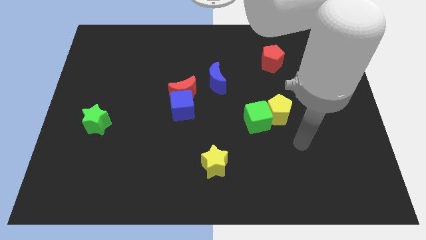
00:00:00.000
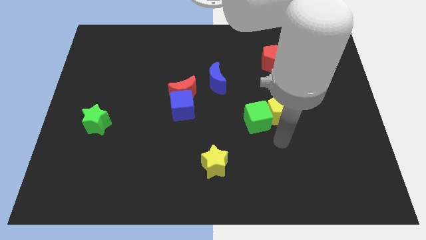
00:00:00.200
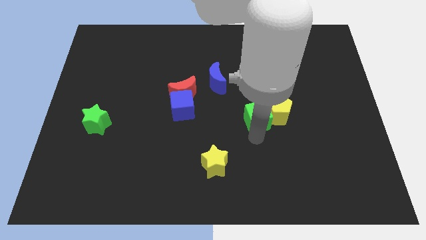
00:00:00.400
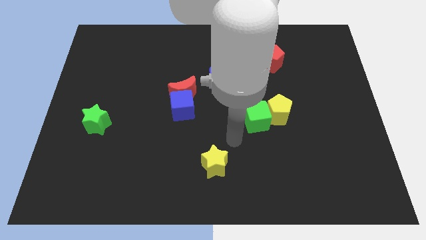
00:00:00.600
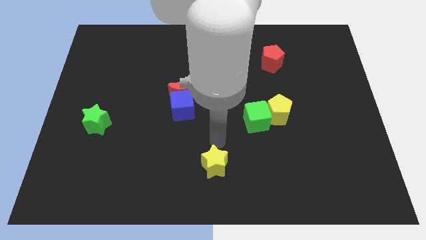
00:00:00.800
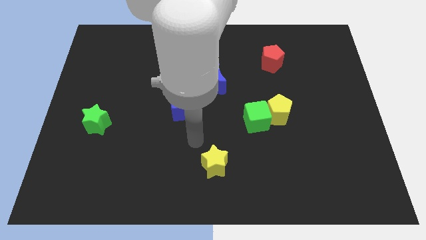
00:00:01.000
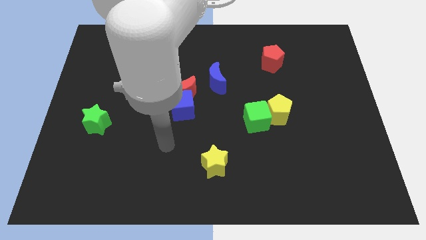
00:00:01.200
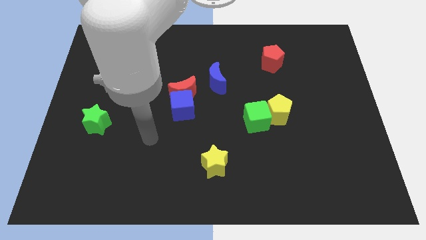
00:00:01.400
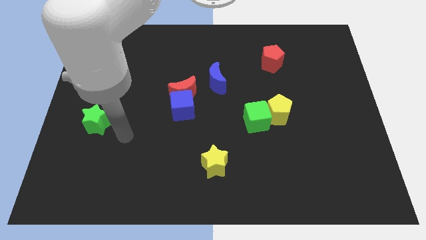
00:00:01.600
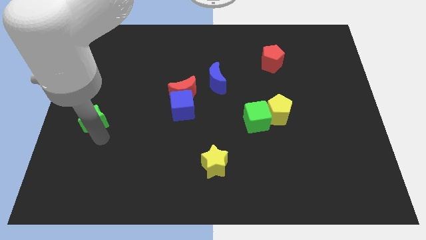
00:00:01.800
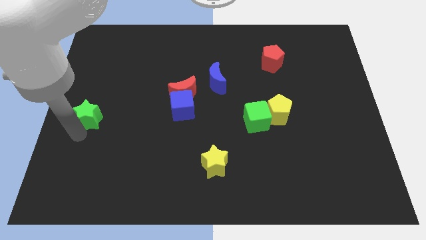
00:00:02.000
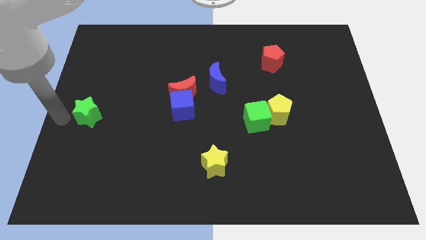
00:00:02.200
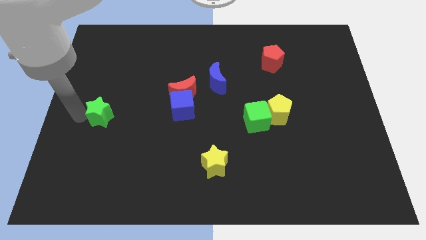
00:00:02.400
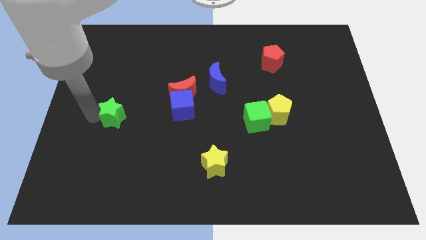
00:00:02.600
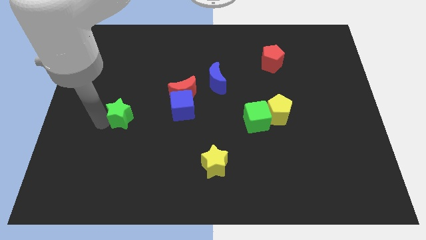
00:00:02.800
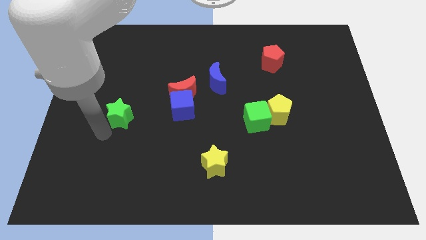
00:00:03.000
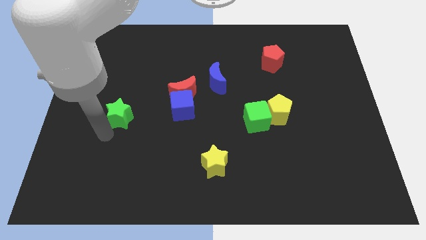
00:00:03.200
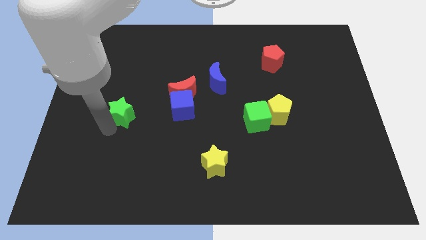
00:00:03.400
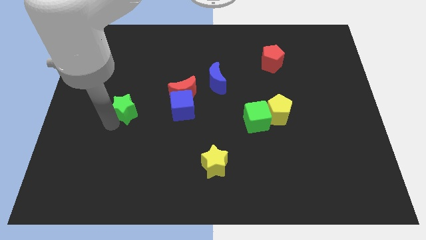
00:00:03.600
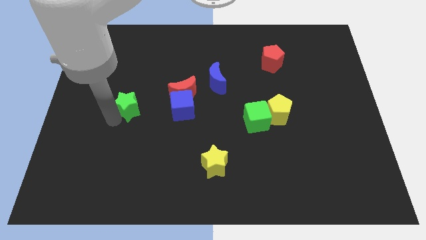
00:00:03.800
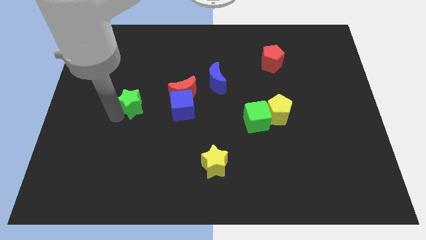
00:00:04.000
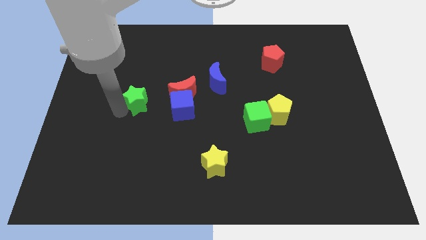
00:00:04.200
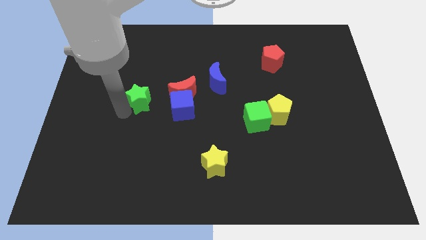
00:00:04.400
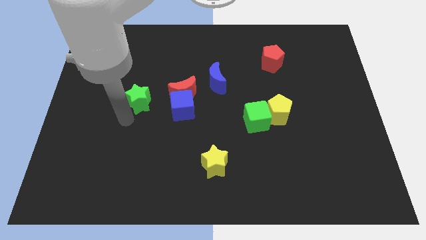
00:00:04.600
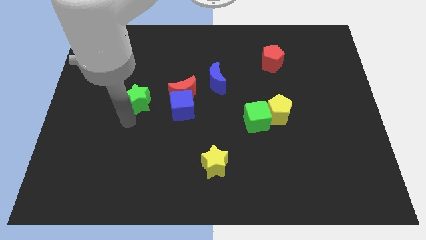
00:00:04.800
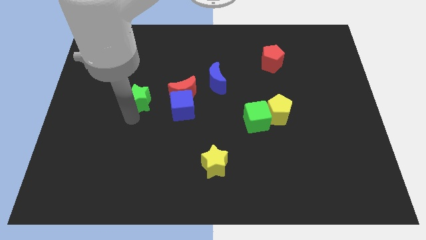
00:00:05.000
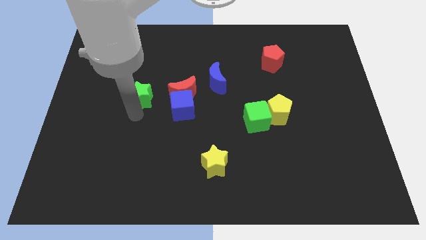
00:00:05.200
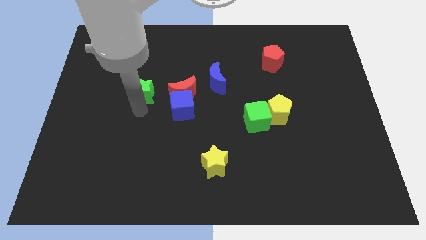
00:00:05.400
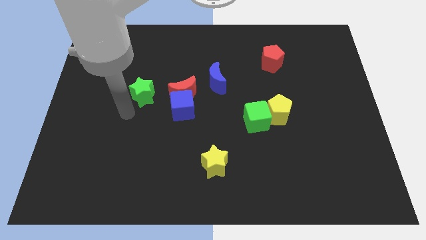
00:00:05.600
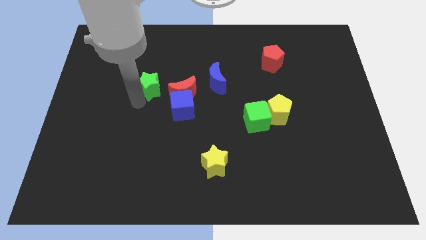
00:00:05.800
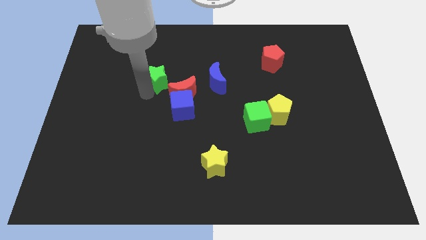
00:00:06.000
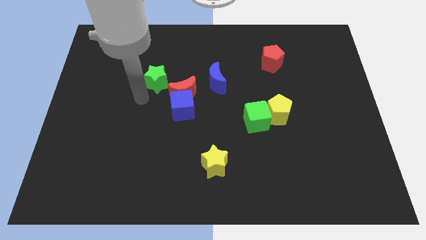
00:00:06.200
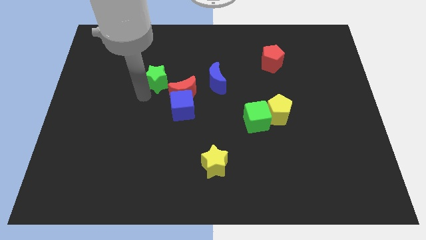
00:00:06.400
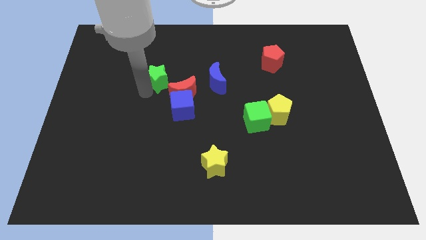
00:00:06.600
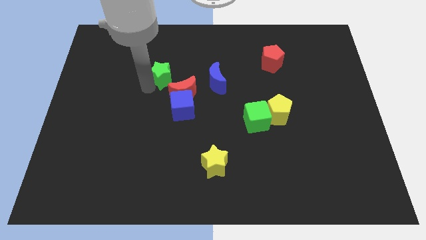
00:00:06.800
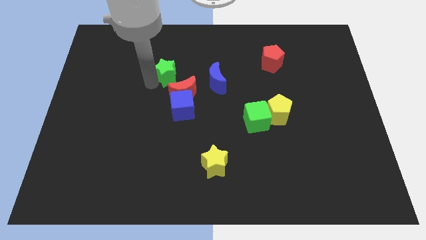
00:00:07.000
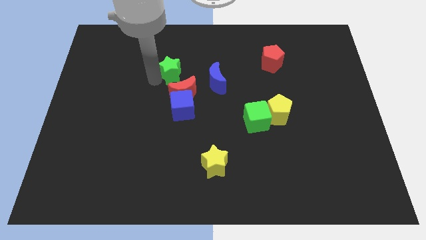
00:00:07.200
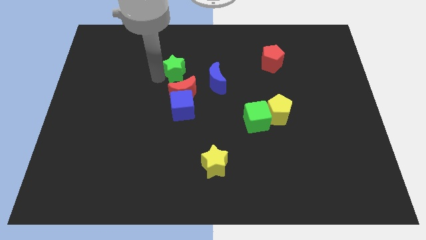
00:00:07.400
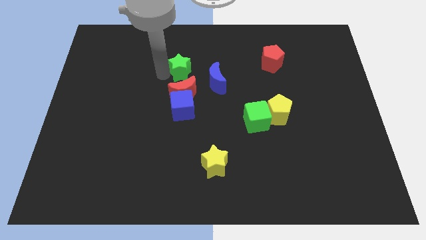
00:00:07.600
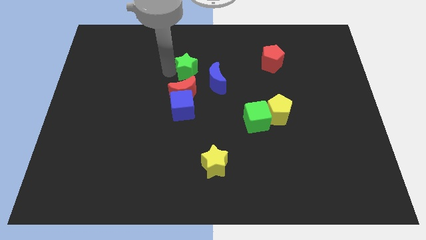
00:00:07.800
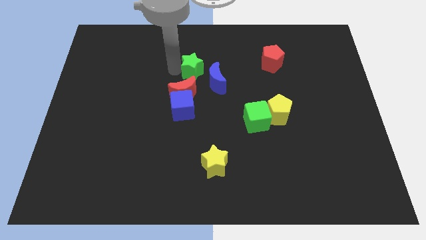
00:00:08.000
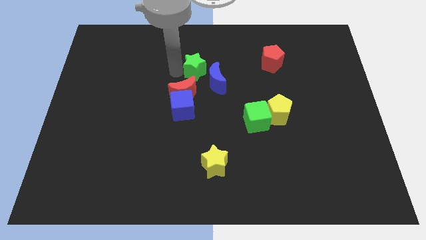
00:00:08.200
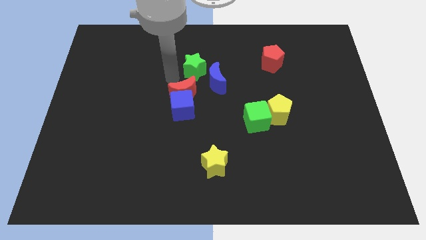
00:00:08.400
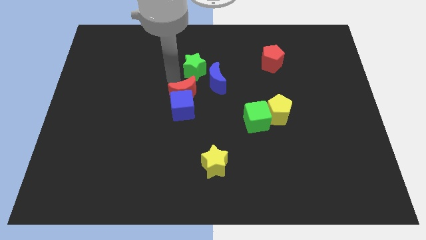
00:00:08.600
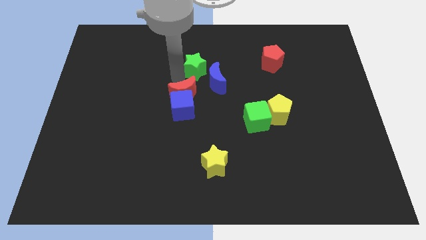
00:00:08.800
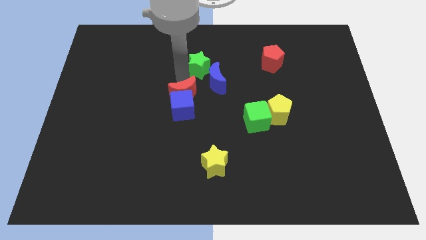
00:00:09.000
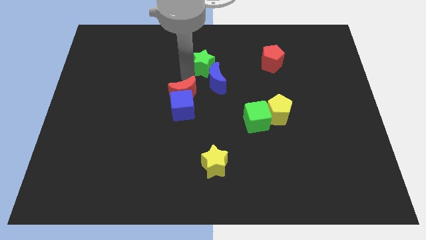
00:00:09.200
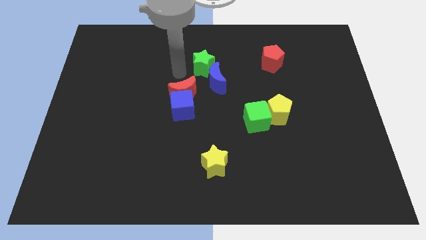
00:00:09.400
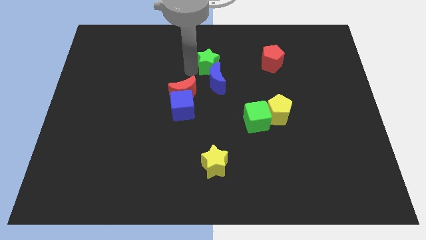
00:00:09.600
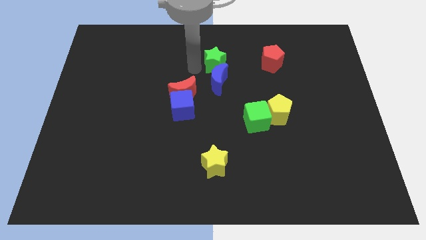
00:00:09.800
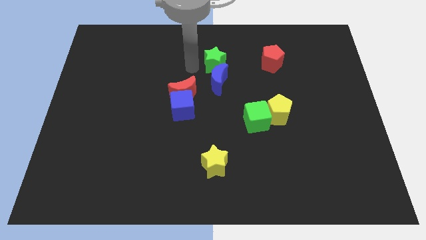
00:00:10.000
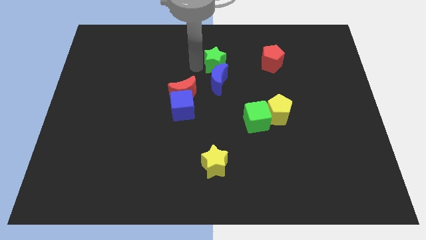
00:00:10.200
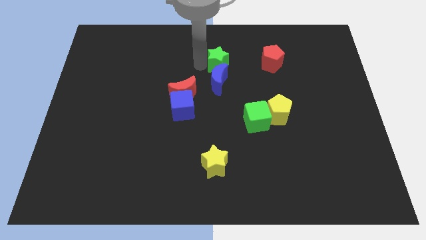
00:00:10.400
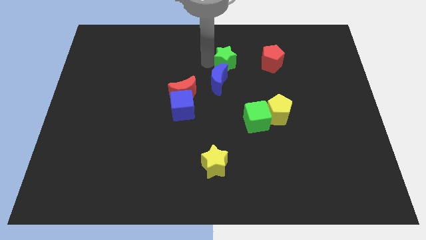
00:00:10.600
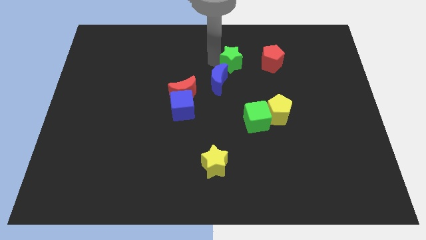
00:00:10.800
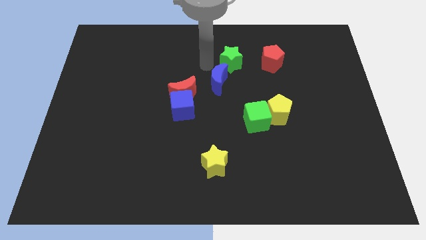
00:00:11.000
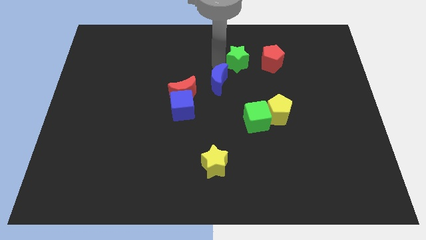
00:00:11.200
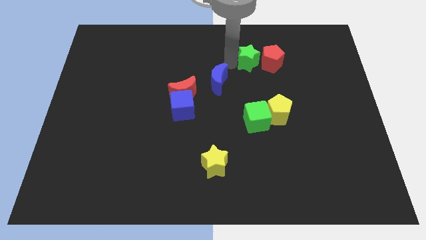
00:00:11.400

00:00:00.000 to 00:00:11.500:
slide the green star close to the red pentagon
